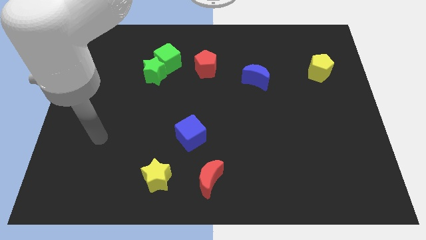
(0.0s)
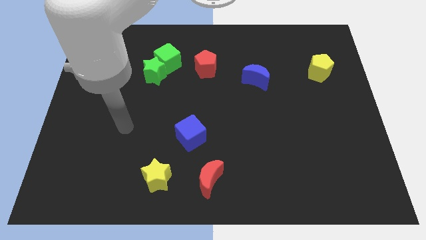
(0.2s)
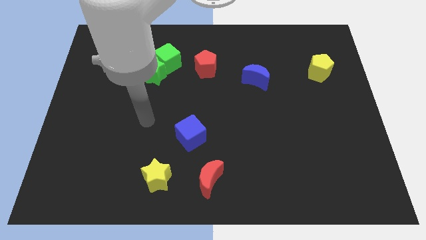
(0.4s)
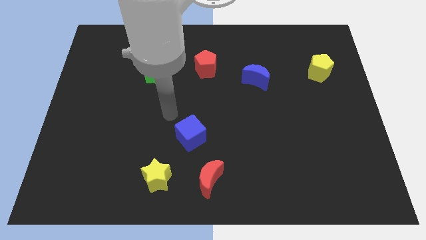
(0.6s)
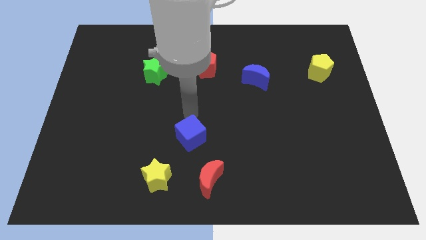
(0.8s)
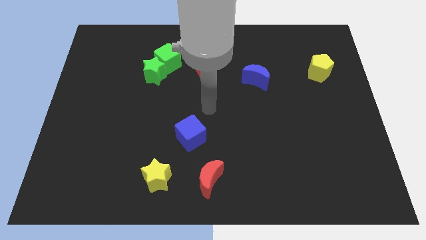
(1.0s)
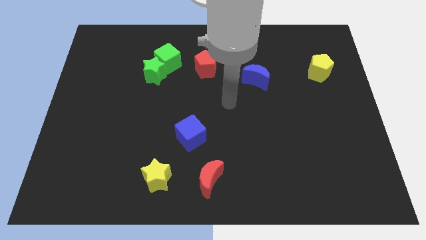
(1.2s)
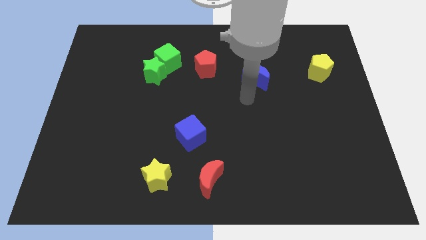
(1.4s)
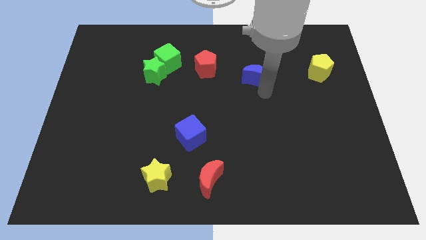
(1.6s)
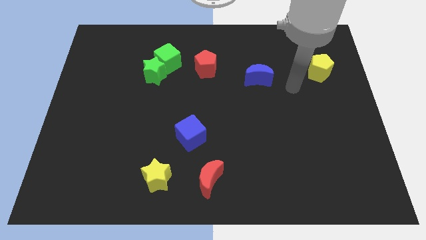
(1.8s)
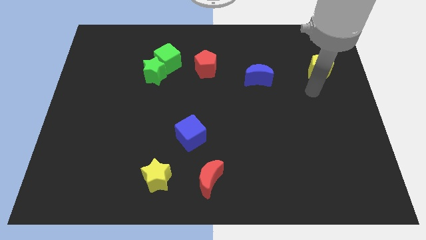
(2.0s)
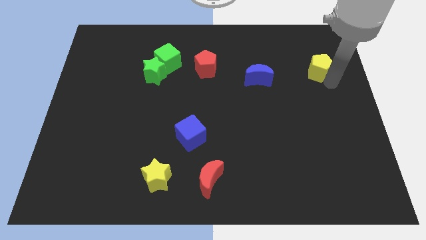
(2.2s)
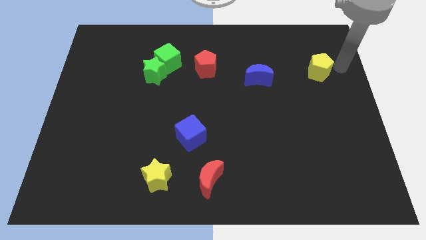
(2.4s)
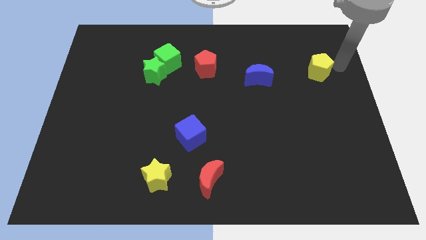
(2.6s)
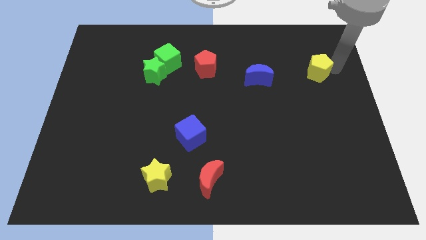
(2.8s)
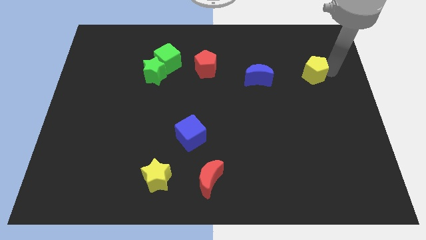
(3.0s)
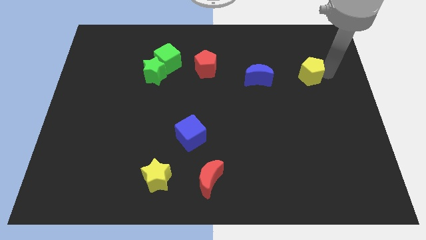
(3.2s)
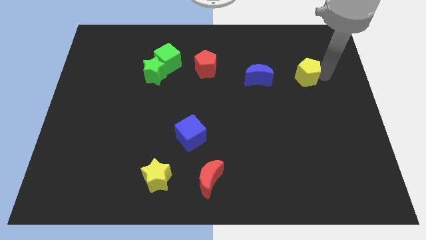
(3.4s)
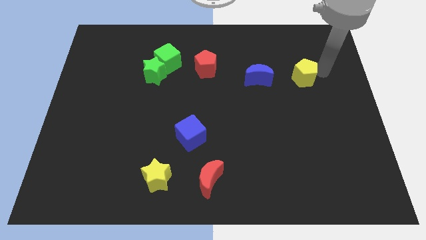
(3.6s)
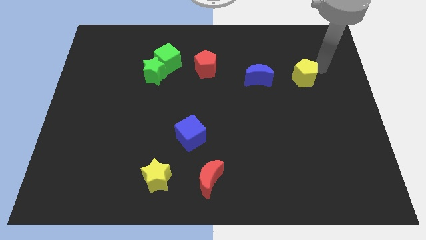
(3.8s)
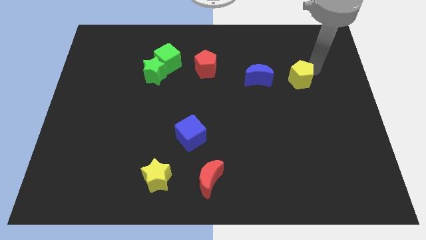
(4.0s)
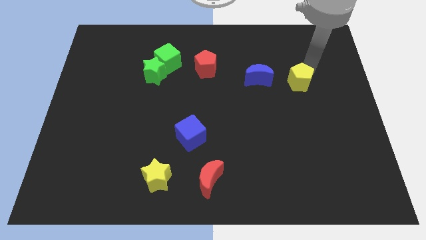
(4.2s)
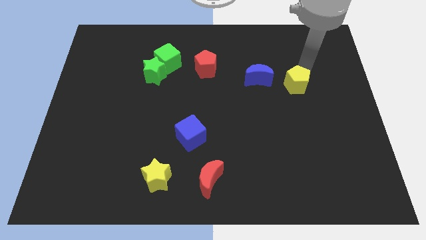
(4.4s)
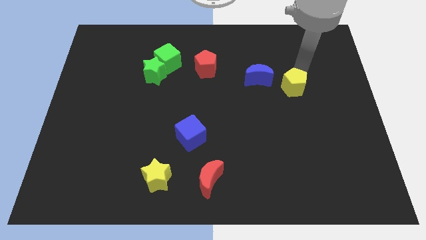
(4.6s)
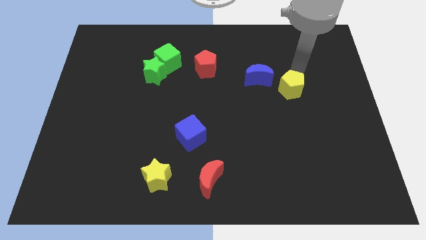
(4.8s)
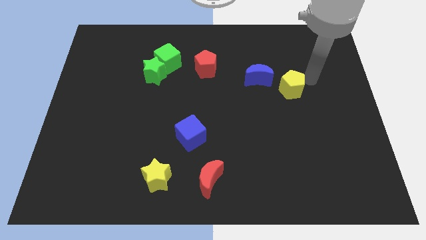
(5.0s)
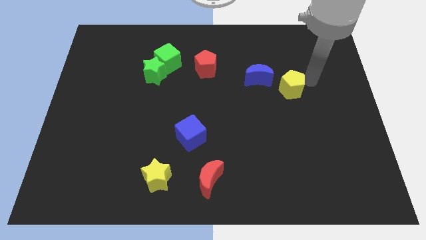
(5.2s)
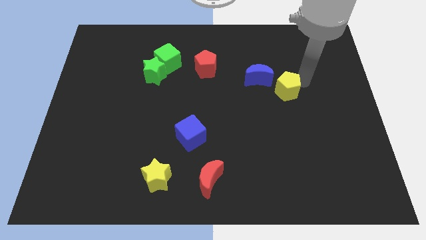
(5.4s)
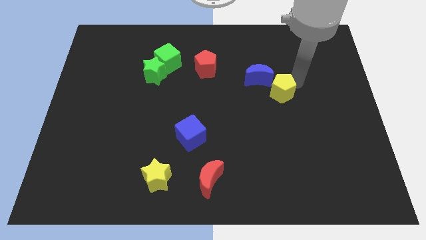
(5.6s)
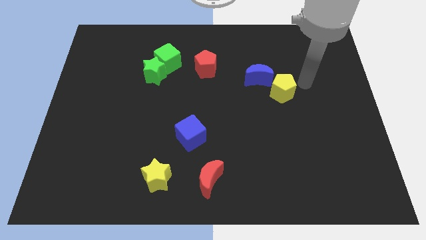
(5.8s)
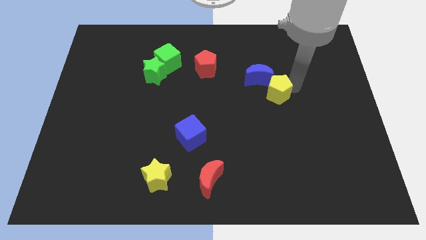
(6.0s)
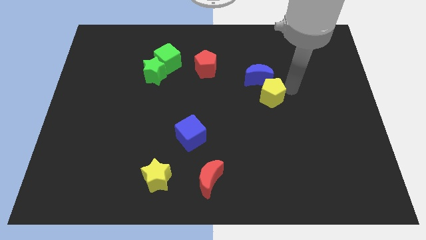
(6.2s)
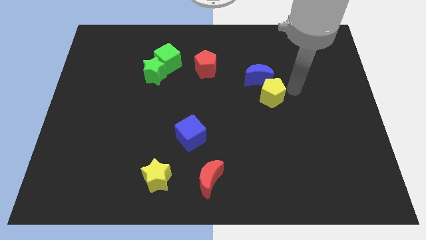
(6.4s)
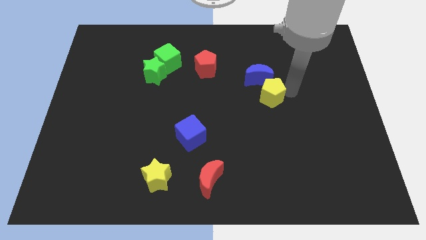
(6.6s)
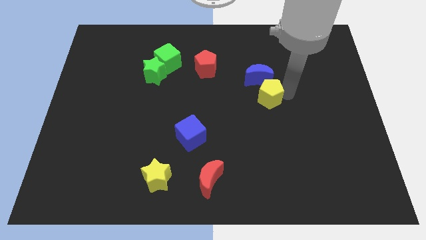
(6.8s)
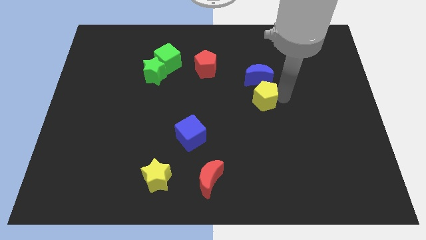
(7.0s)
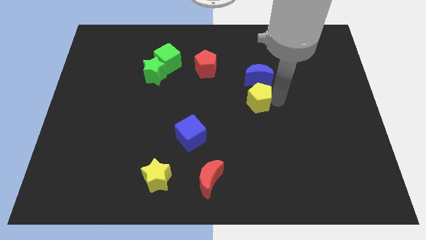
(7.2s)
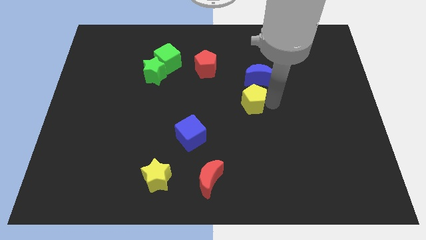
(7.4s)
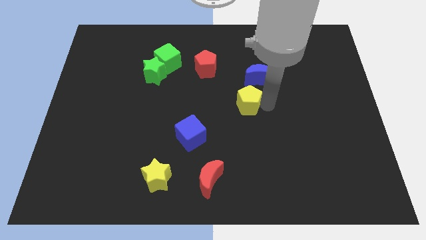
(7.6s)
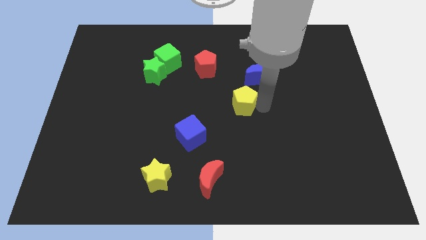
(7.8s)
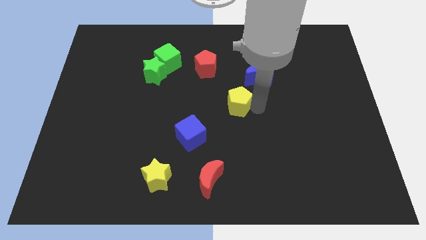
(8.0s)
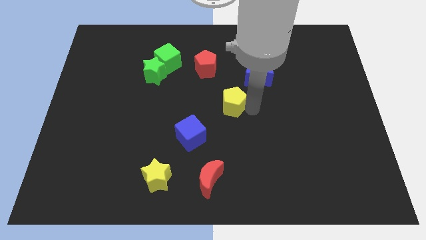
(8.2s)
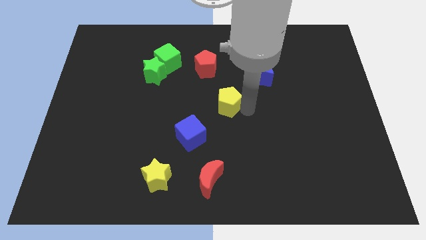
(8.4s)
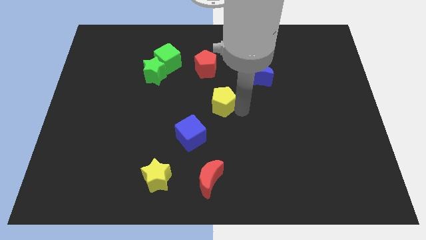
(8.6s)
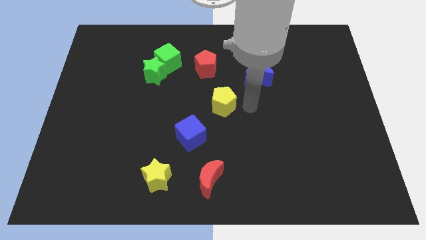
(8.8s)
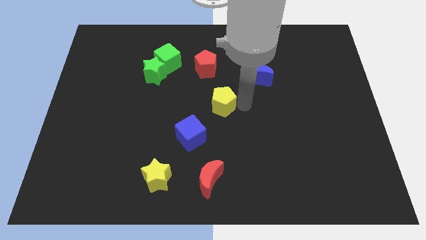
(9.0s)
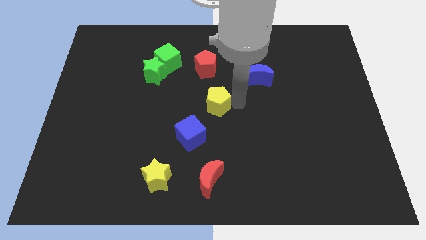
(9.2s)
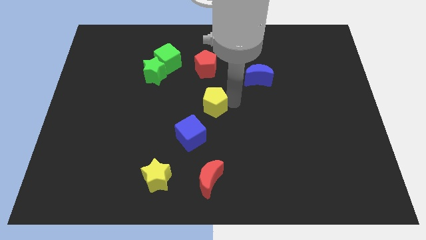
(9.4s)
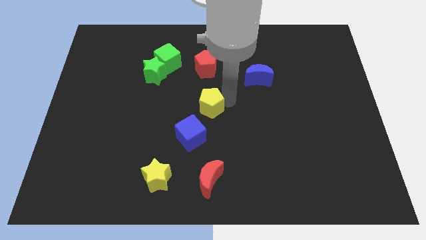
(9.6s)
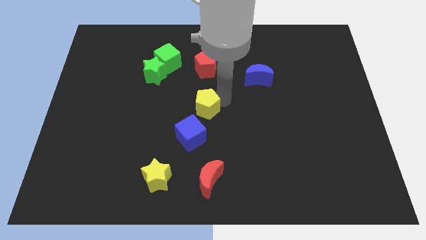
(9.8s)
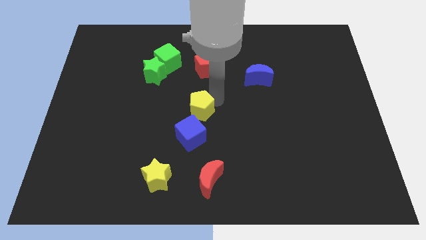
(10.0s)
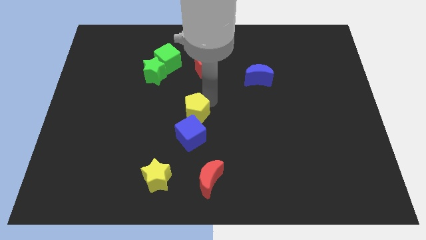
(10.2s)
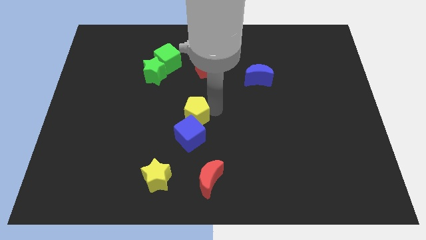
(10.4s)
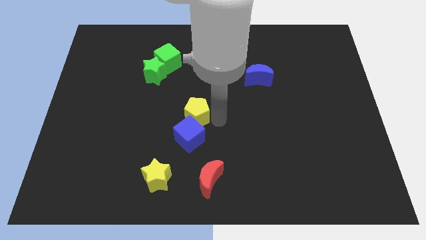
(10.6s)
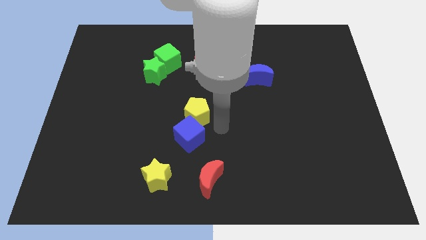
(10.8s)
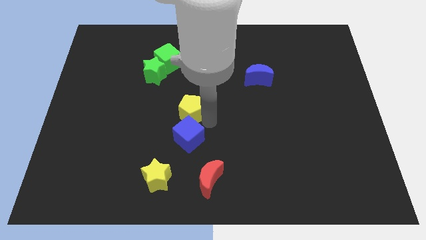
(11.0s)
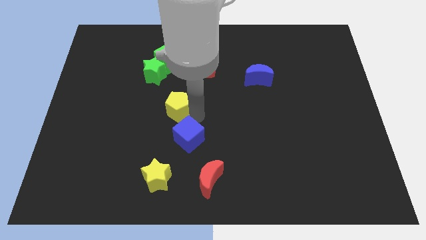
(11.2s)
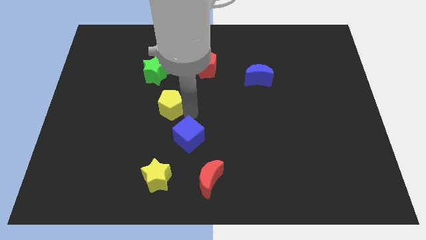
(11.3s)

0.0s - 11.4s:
push the yellow pentagon to the bottom of the green star

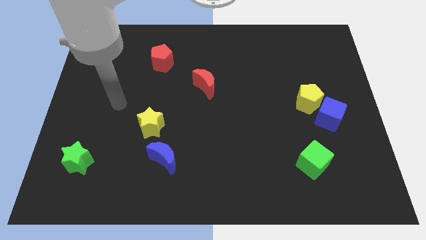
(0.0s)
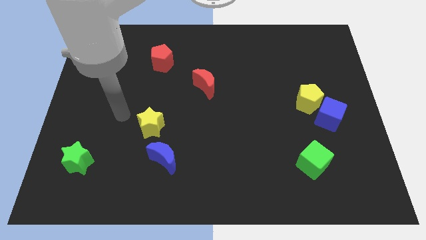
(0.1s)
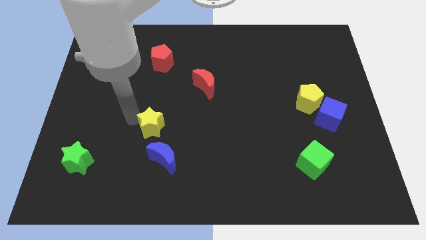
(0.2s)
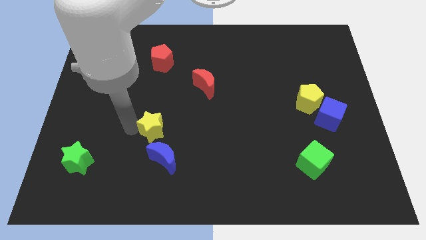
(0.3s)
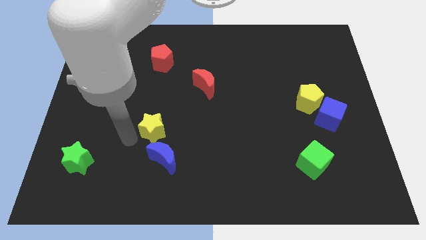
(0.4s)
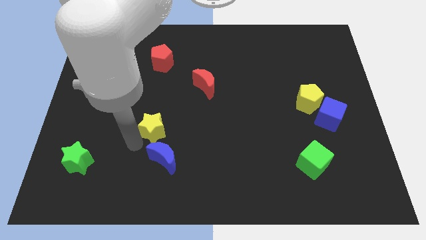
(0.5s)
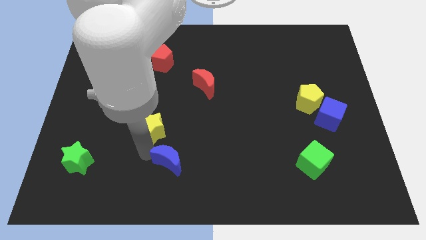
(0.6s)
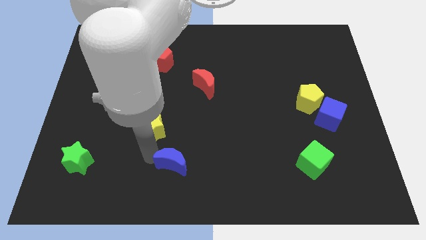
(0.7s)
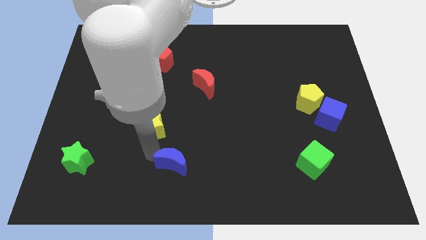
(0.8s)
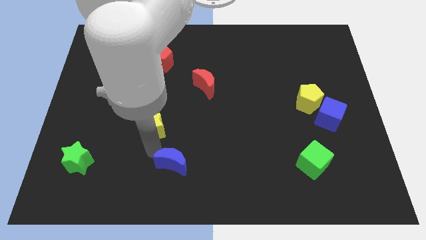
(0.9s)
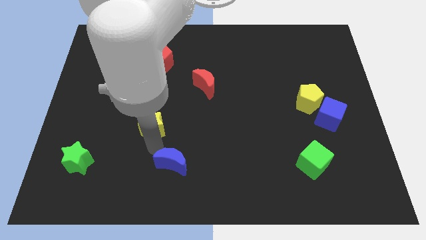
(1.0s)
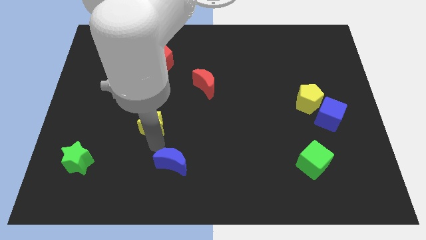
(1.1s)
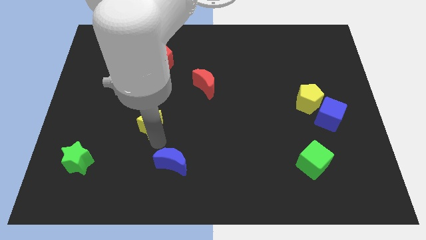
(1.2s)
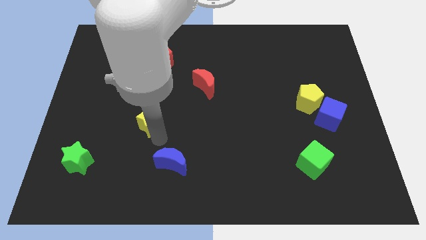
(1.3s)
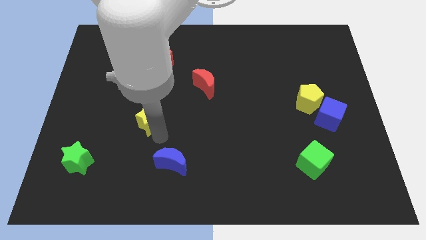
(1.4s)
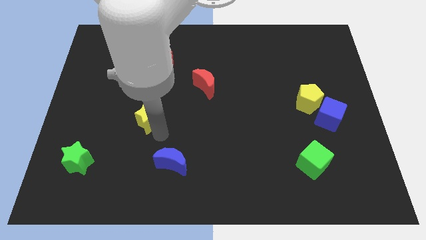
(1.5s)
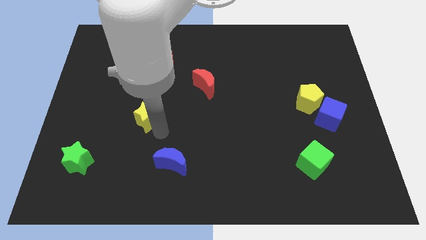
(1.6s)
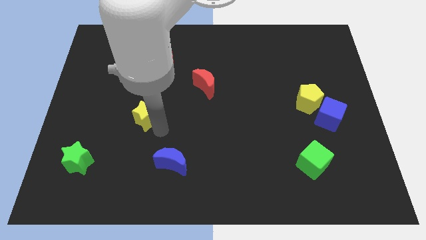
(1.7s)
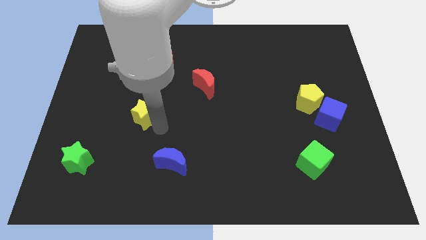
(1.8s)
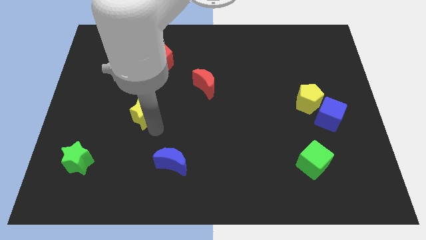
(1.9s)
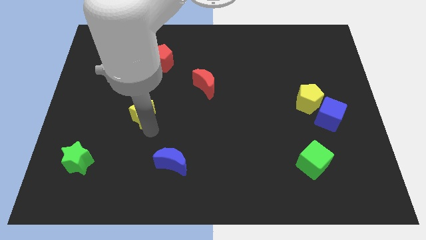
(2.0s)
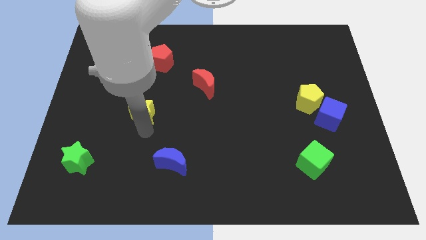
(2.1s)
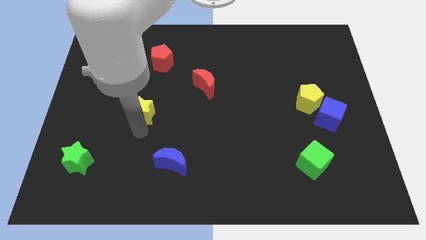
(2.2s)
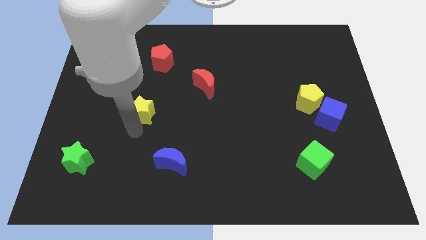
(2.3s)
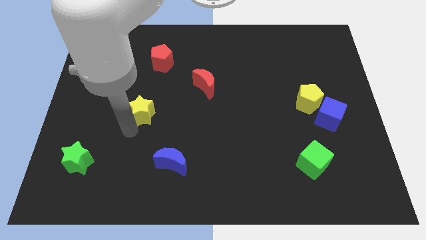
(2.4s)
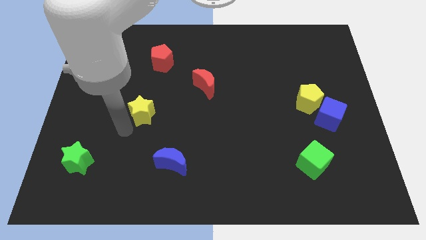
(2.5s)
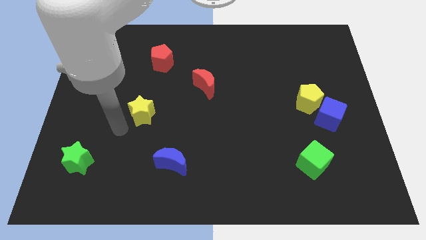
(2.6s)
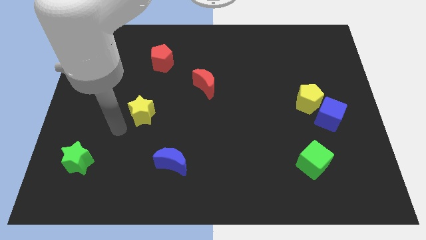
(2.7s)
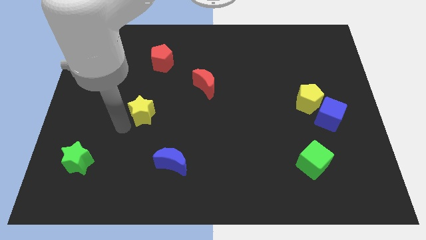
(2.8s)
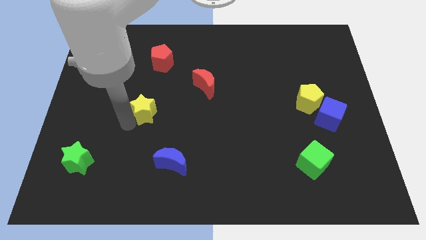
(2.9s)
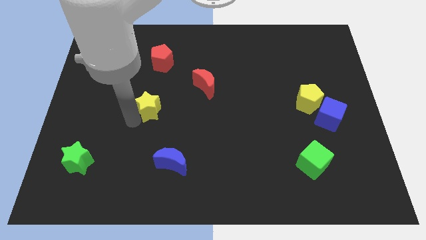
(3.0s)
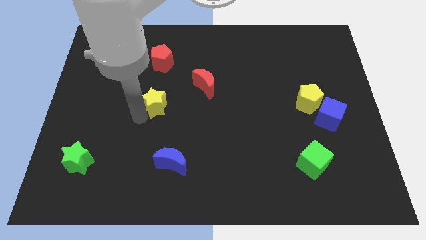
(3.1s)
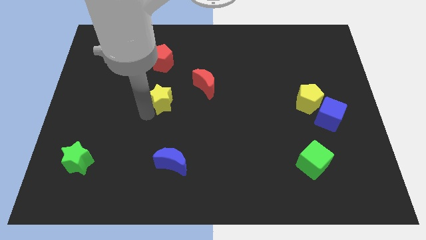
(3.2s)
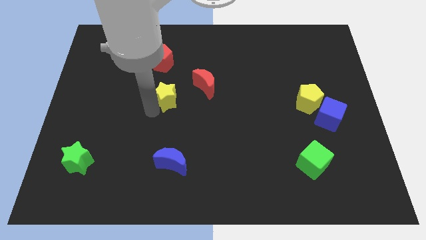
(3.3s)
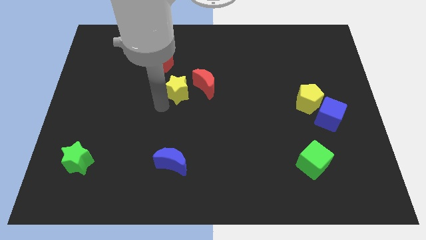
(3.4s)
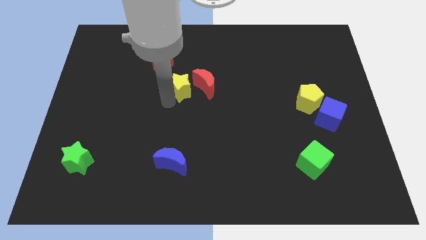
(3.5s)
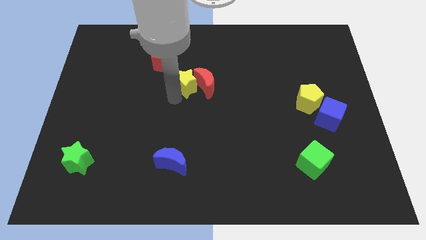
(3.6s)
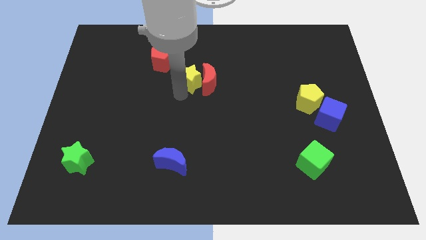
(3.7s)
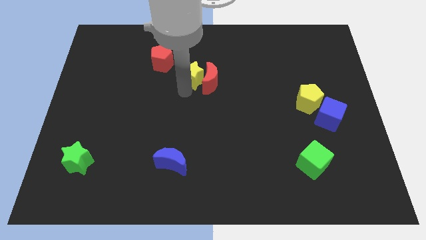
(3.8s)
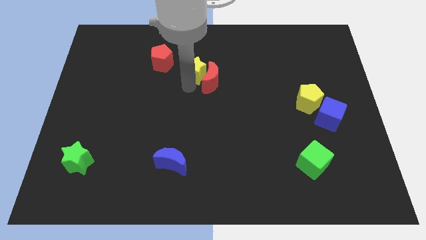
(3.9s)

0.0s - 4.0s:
move the yellow star to the right side of the red pentagon
